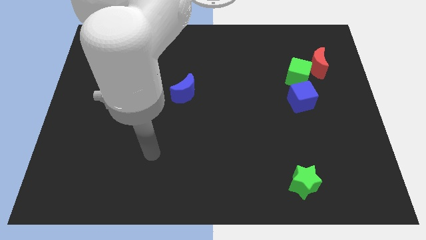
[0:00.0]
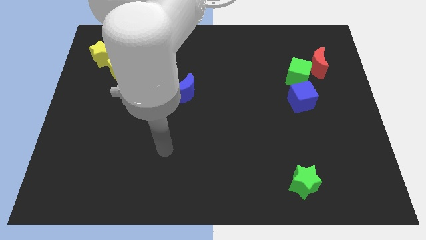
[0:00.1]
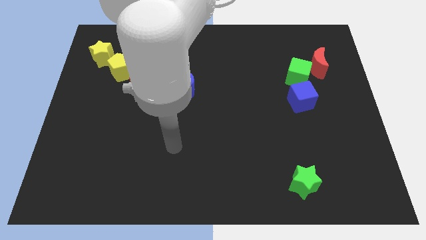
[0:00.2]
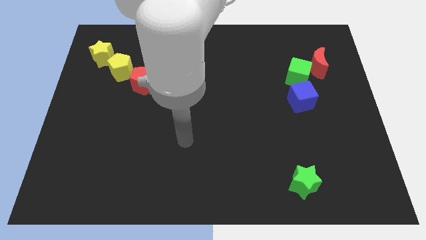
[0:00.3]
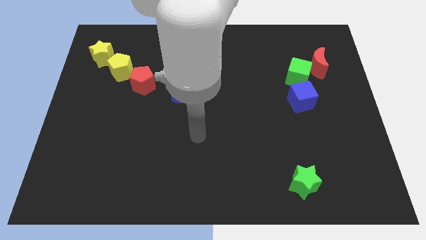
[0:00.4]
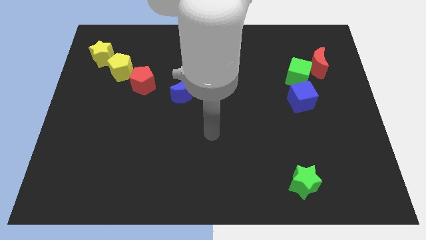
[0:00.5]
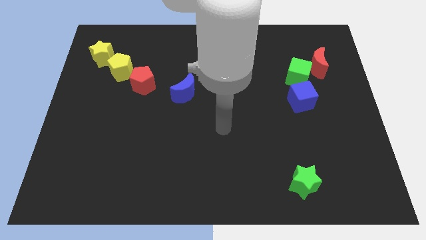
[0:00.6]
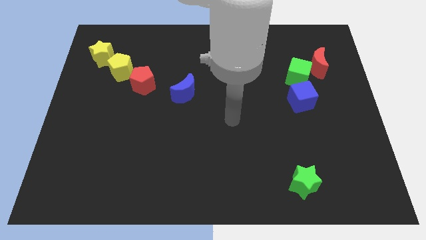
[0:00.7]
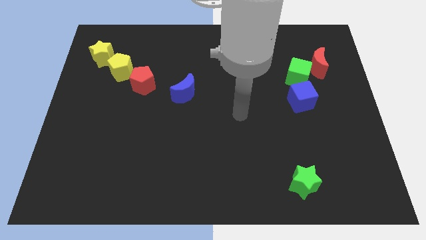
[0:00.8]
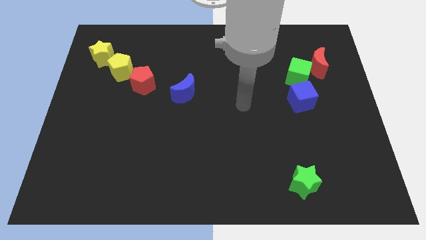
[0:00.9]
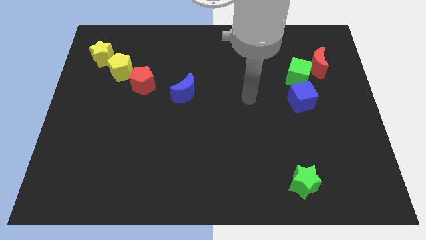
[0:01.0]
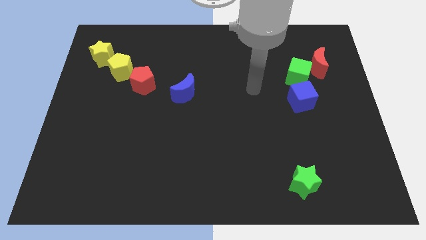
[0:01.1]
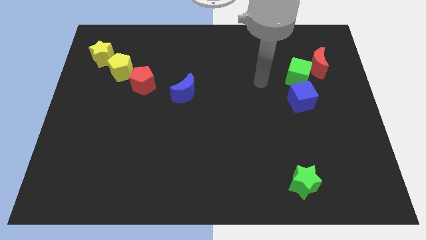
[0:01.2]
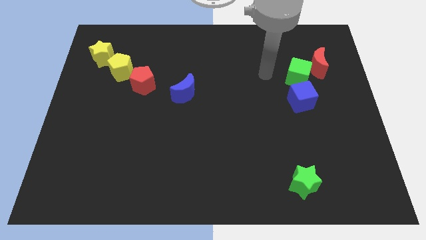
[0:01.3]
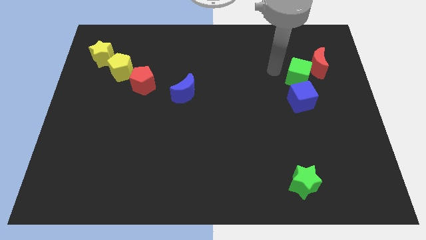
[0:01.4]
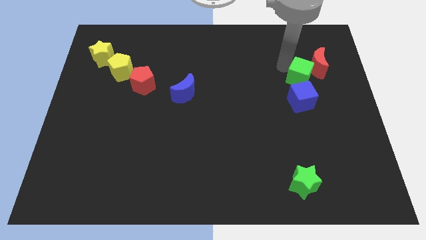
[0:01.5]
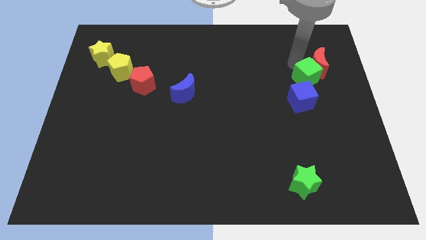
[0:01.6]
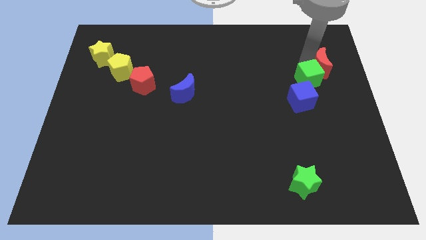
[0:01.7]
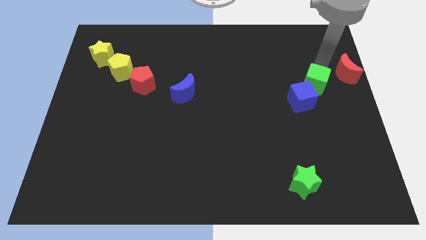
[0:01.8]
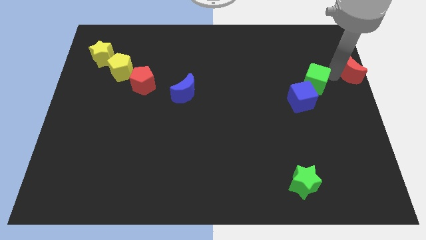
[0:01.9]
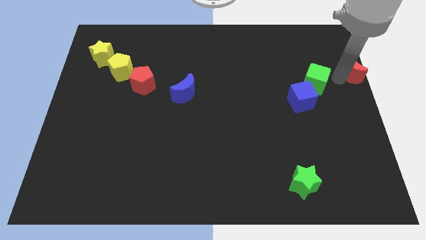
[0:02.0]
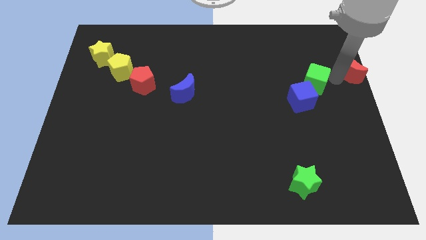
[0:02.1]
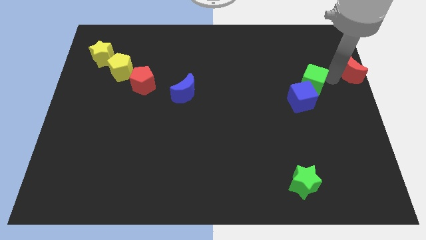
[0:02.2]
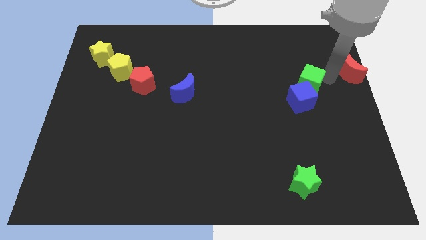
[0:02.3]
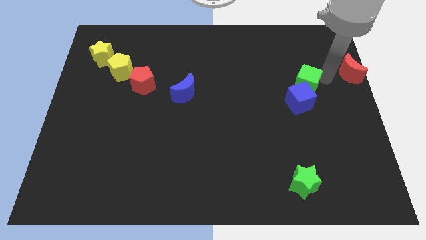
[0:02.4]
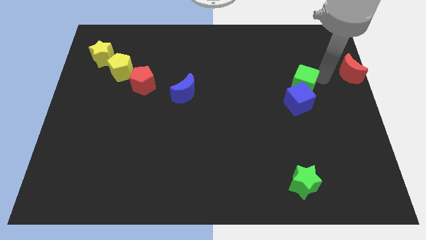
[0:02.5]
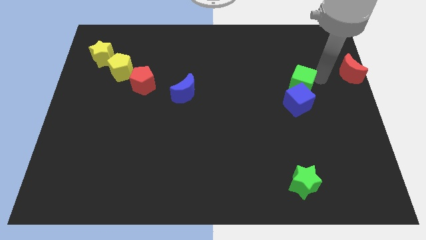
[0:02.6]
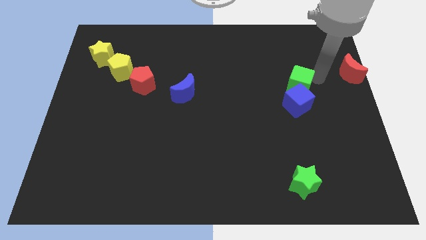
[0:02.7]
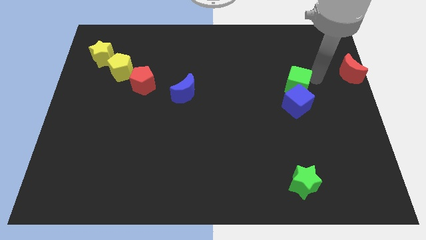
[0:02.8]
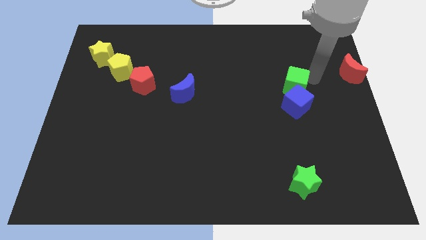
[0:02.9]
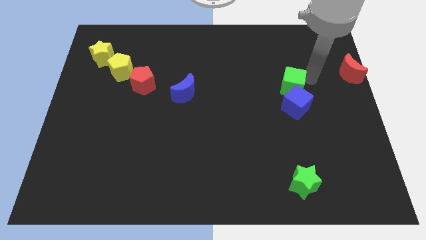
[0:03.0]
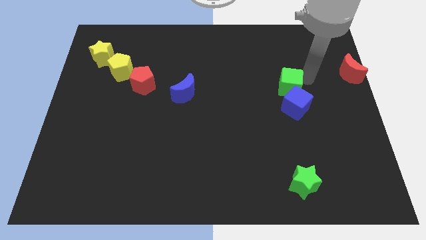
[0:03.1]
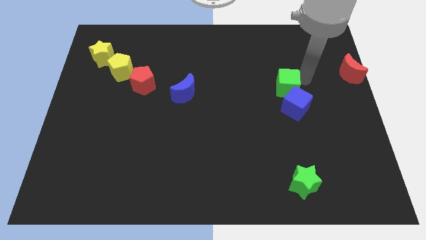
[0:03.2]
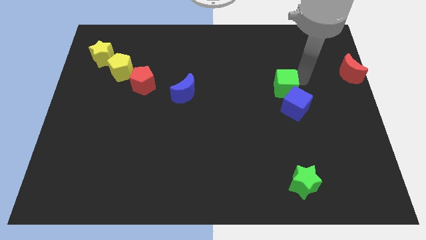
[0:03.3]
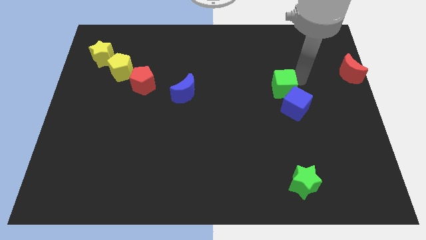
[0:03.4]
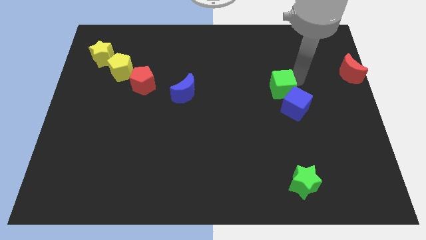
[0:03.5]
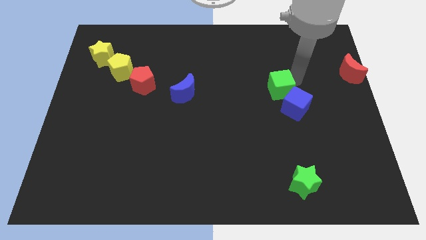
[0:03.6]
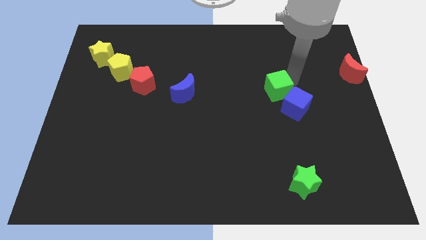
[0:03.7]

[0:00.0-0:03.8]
slide the green cube a little down and left

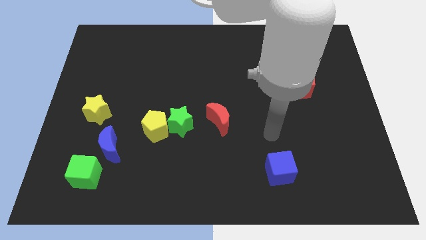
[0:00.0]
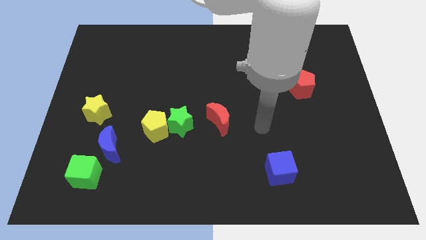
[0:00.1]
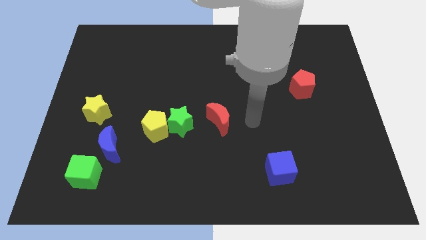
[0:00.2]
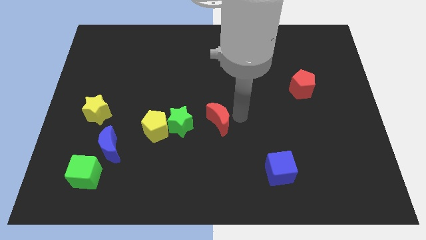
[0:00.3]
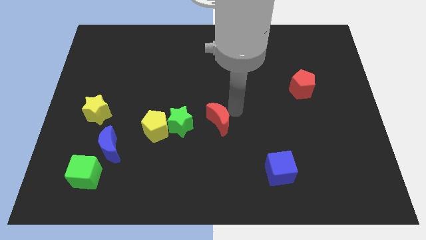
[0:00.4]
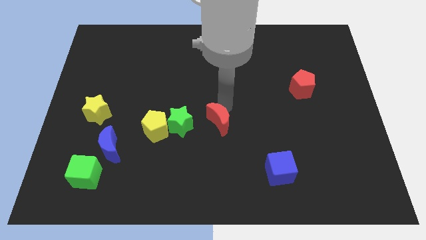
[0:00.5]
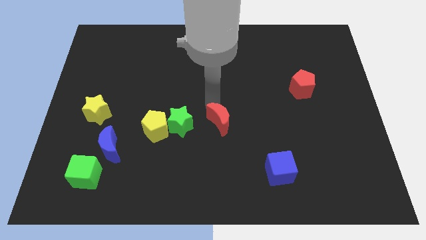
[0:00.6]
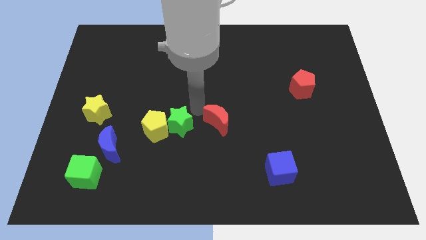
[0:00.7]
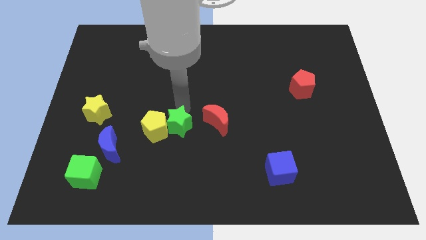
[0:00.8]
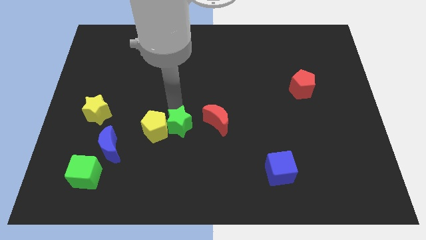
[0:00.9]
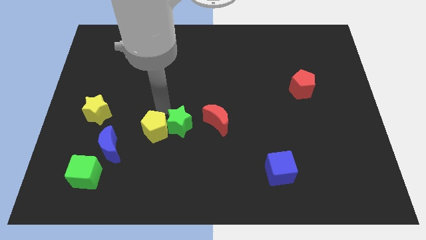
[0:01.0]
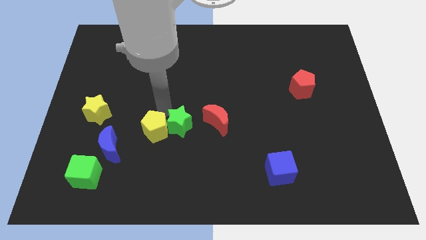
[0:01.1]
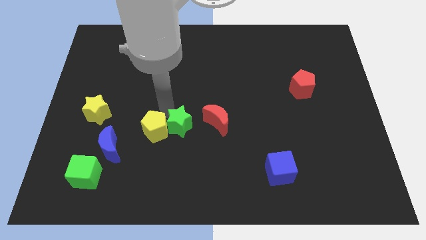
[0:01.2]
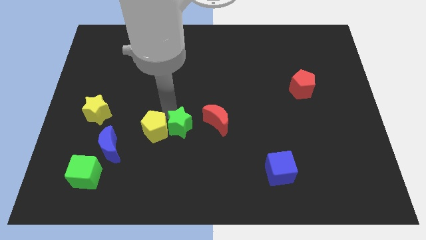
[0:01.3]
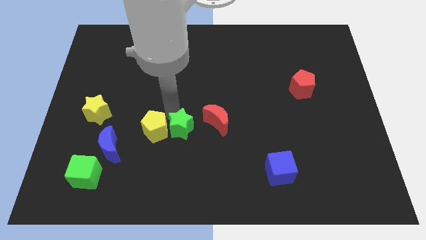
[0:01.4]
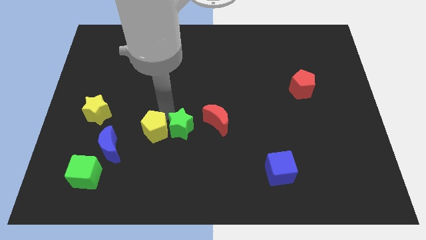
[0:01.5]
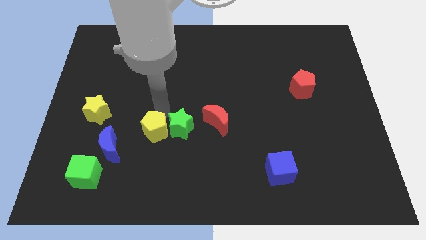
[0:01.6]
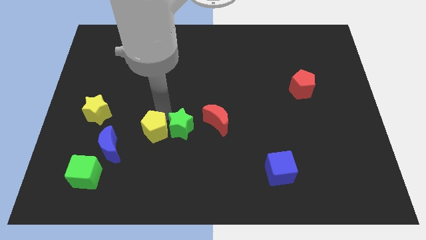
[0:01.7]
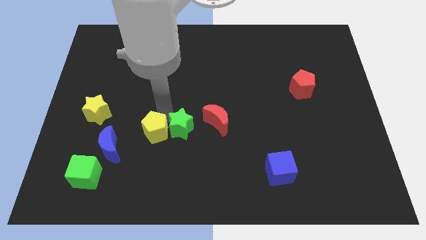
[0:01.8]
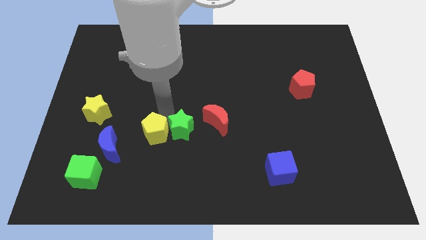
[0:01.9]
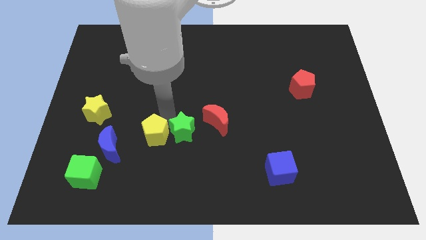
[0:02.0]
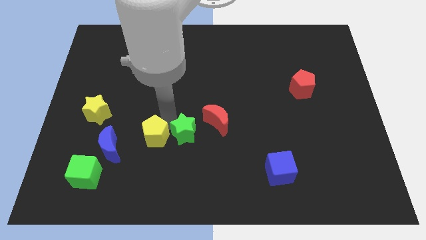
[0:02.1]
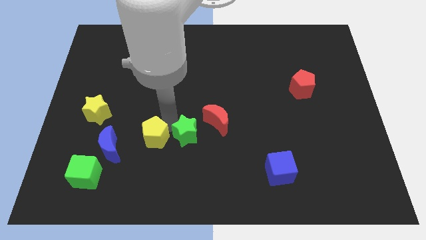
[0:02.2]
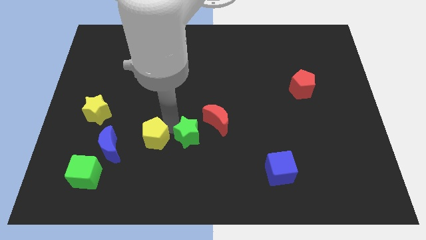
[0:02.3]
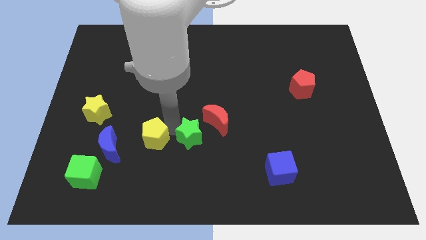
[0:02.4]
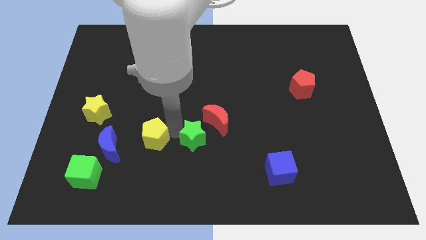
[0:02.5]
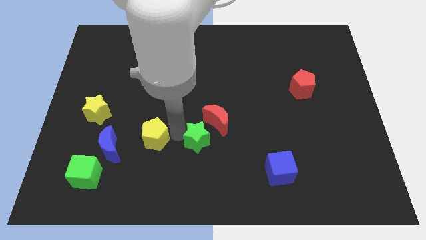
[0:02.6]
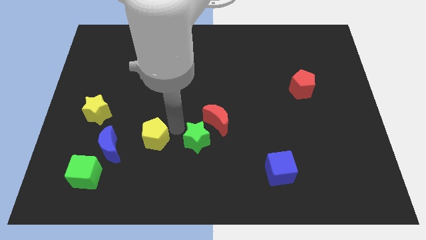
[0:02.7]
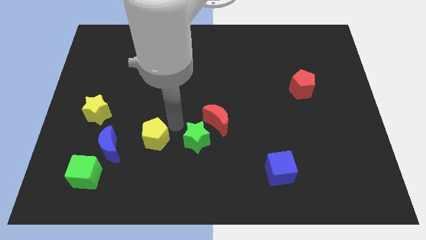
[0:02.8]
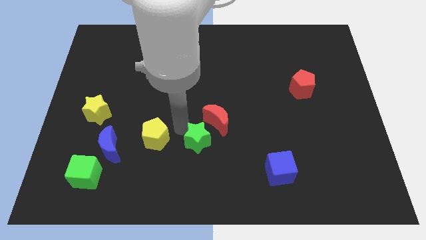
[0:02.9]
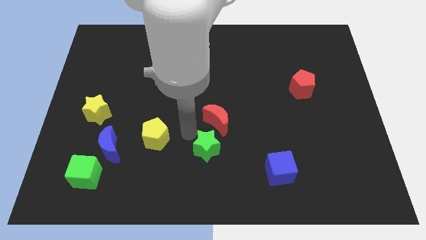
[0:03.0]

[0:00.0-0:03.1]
slightly move the green star down and right diagonally

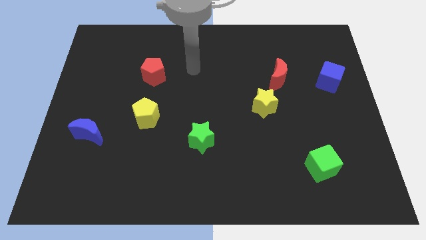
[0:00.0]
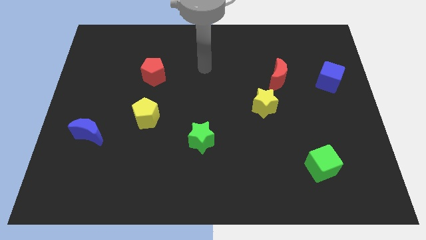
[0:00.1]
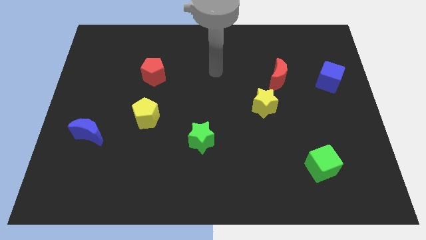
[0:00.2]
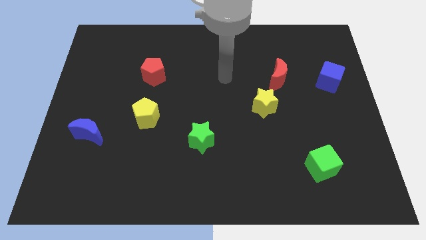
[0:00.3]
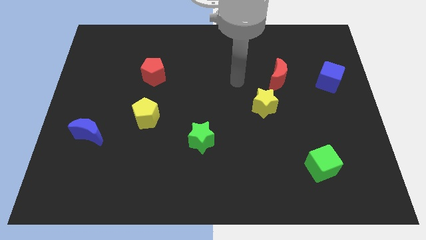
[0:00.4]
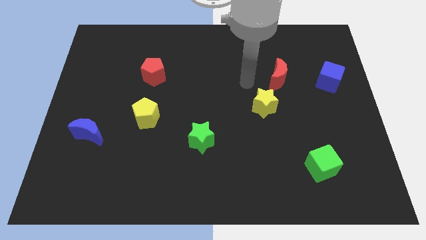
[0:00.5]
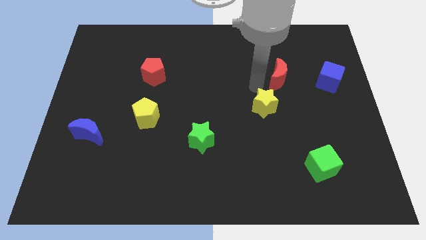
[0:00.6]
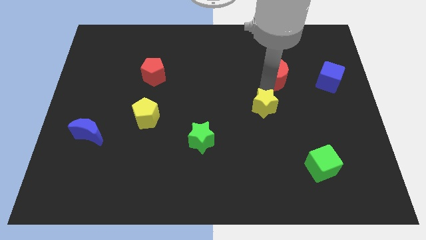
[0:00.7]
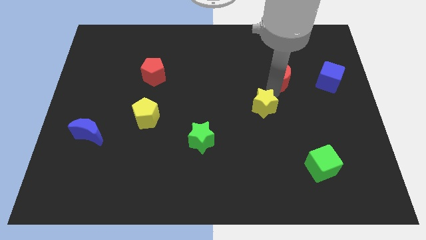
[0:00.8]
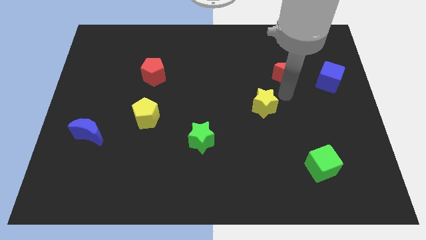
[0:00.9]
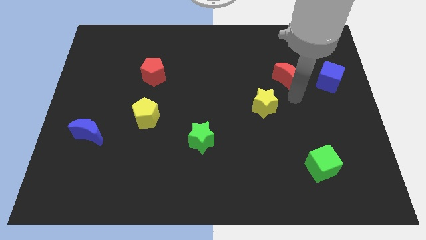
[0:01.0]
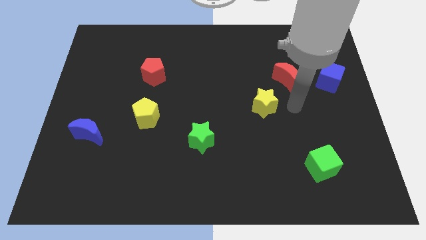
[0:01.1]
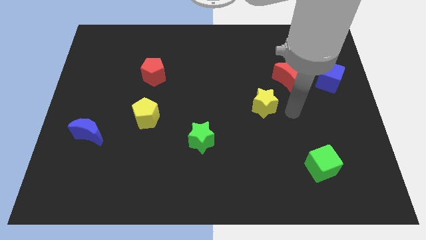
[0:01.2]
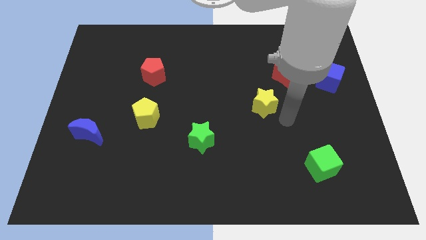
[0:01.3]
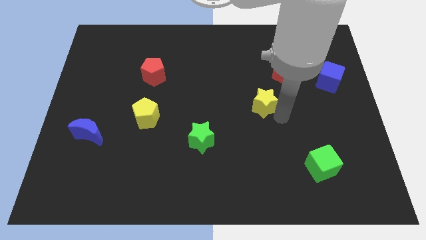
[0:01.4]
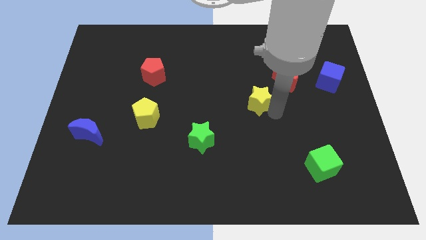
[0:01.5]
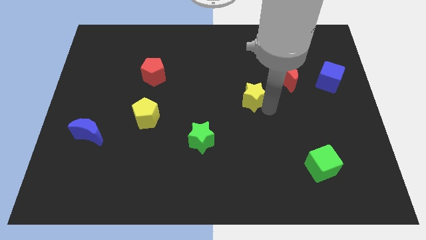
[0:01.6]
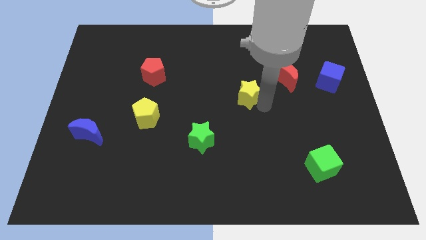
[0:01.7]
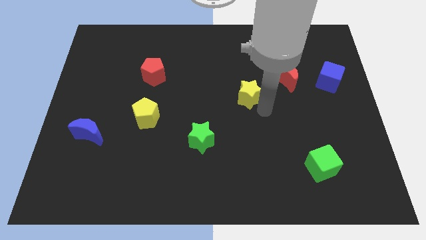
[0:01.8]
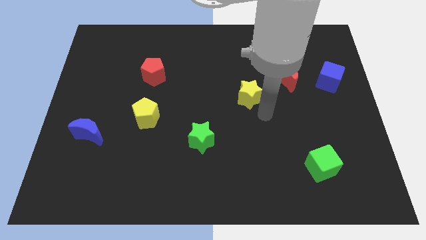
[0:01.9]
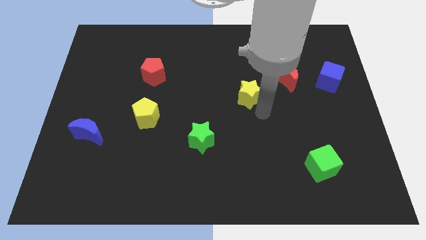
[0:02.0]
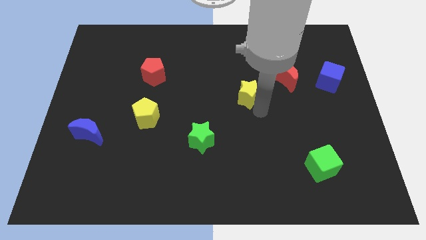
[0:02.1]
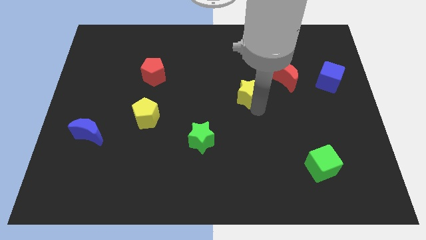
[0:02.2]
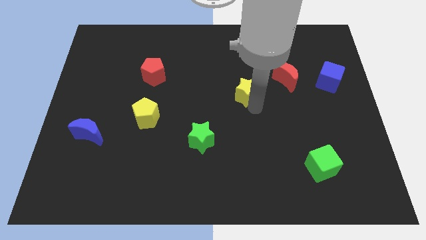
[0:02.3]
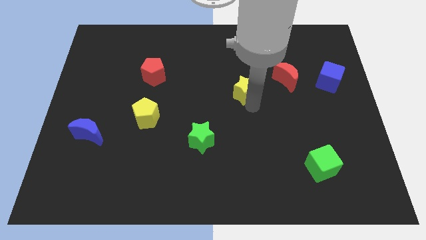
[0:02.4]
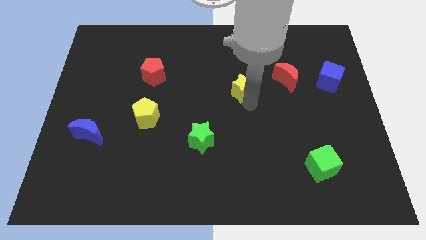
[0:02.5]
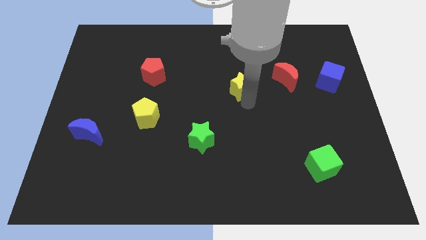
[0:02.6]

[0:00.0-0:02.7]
slightly move the yellow star up and to the left
